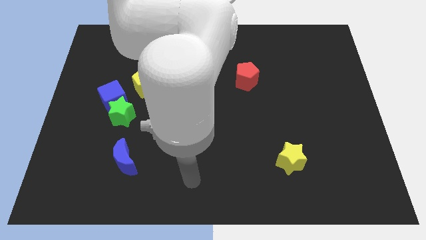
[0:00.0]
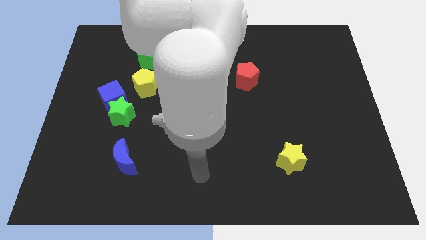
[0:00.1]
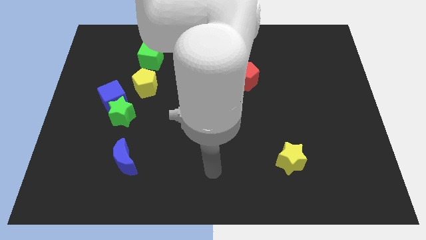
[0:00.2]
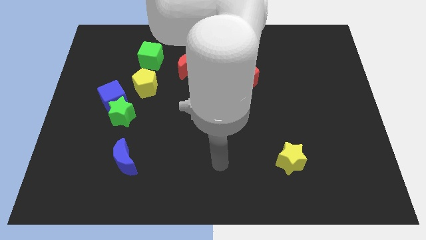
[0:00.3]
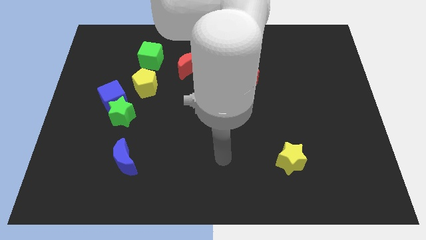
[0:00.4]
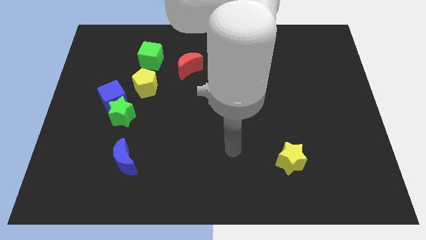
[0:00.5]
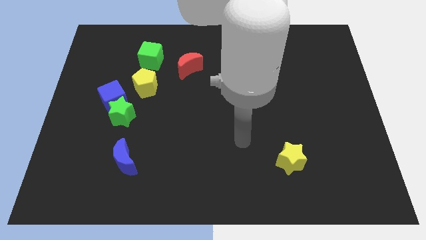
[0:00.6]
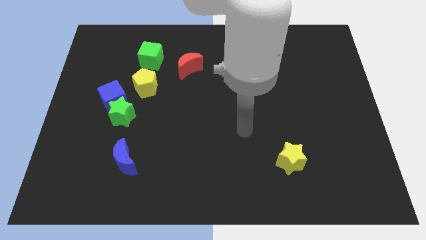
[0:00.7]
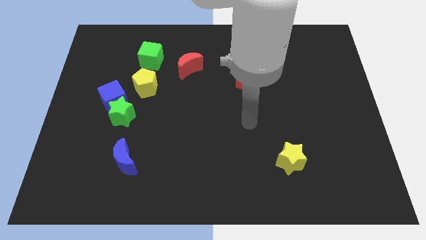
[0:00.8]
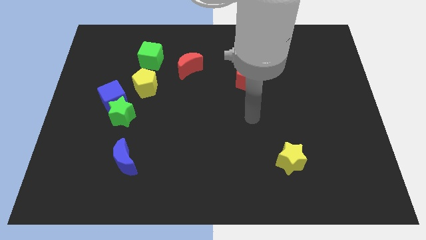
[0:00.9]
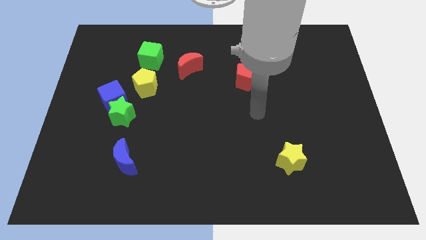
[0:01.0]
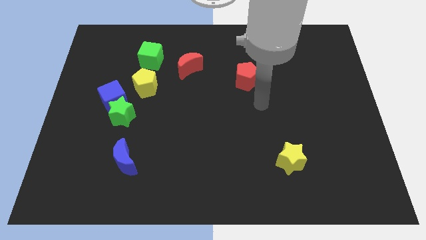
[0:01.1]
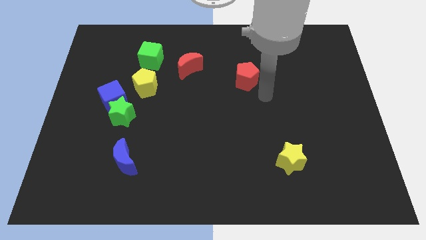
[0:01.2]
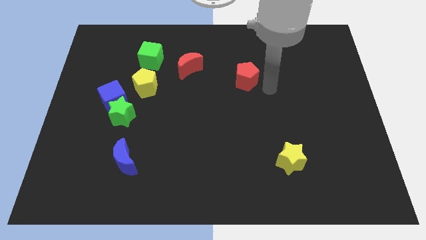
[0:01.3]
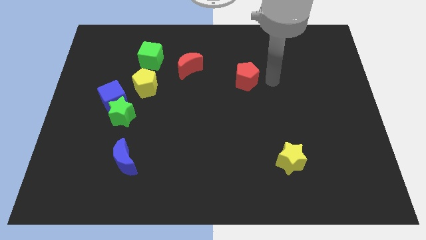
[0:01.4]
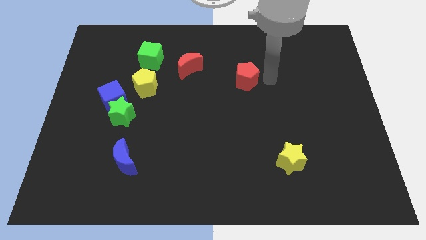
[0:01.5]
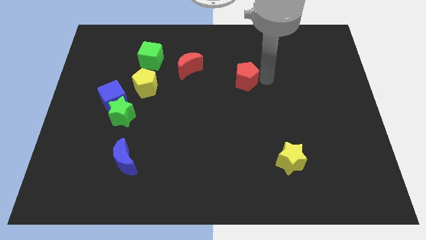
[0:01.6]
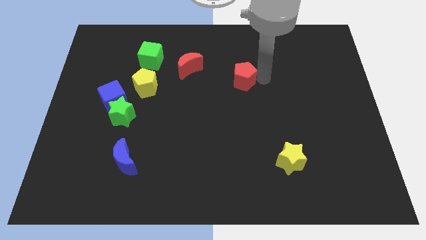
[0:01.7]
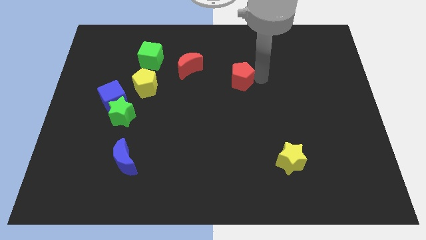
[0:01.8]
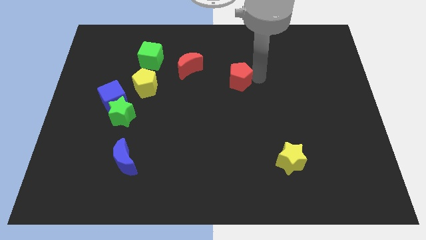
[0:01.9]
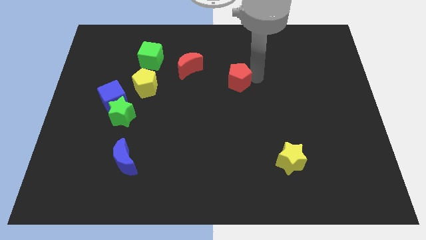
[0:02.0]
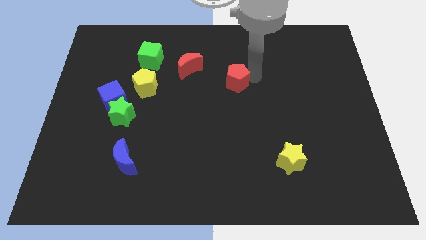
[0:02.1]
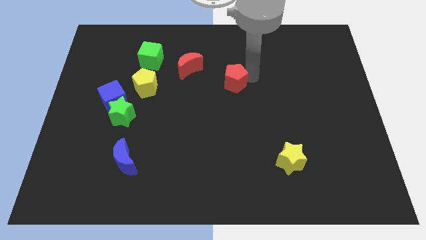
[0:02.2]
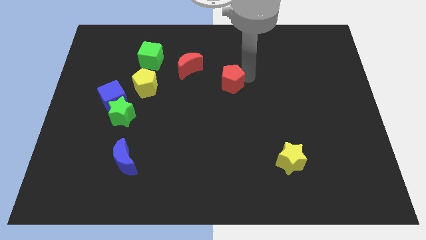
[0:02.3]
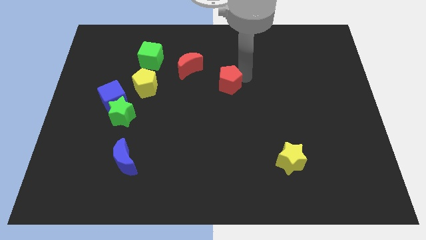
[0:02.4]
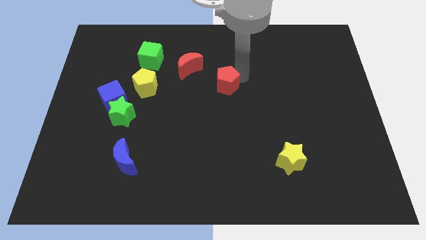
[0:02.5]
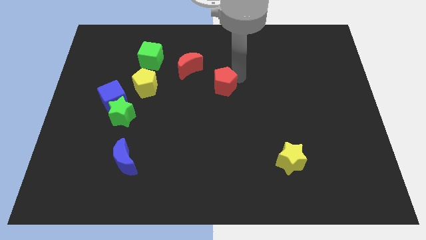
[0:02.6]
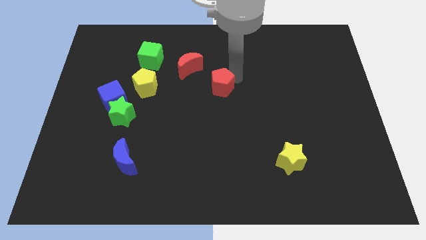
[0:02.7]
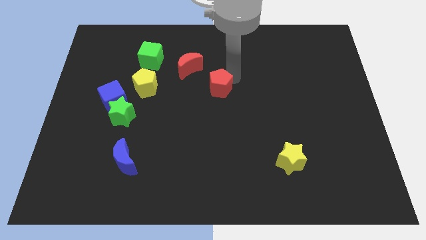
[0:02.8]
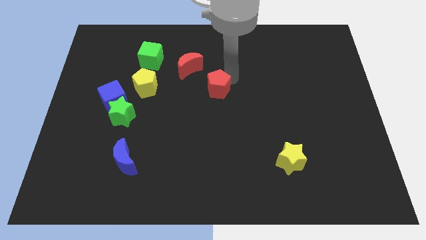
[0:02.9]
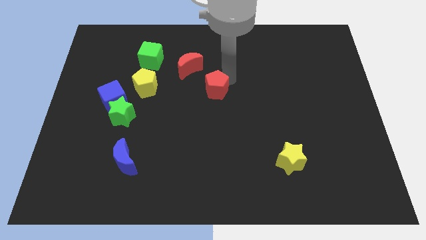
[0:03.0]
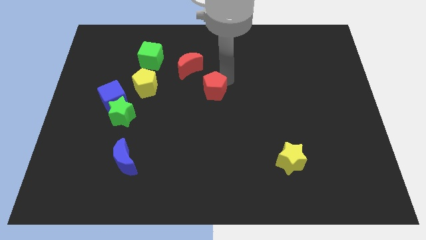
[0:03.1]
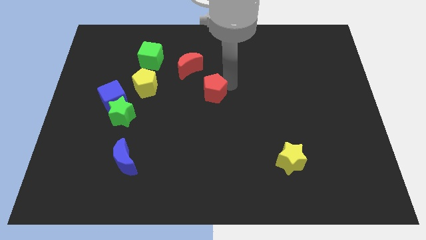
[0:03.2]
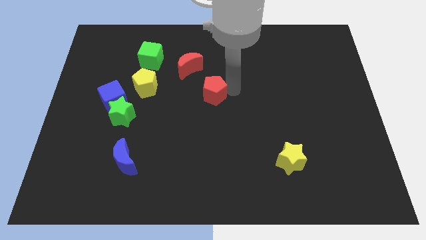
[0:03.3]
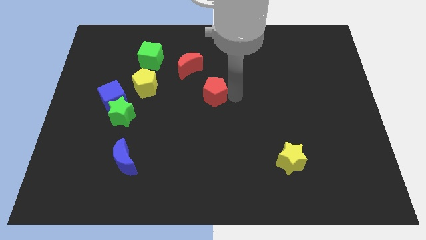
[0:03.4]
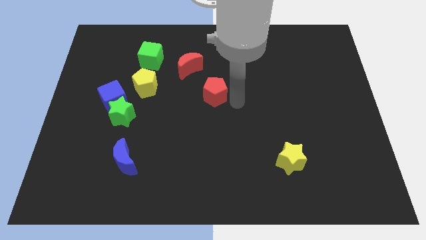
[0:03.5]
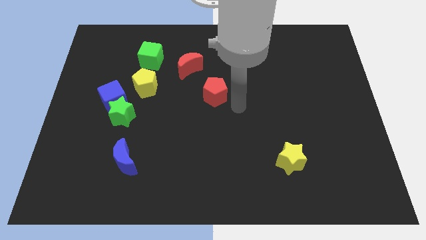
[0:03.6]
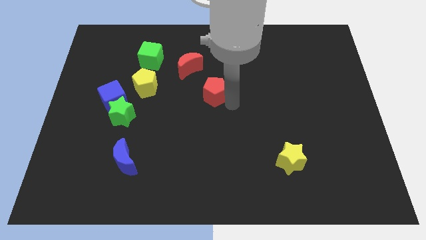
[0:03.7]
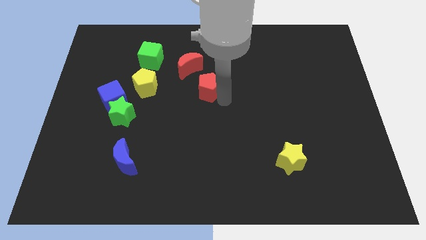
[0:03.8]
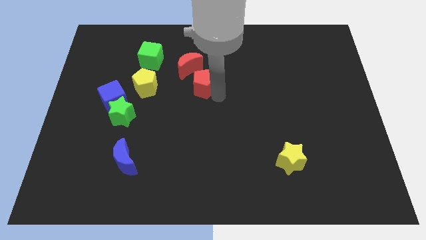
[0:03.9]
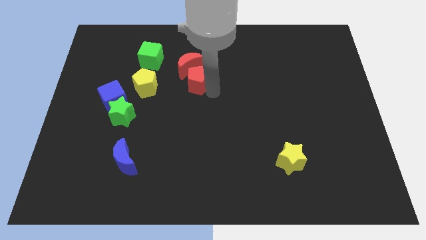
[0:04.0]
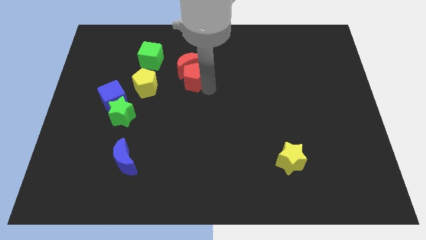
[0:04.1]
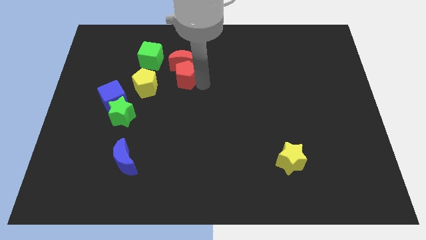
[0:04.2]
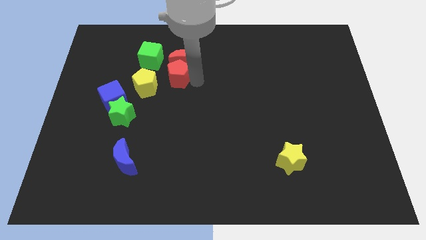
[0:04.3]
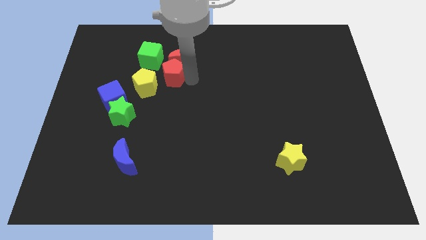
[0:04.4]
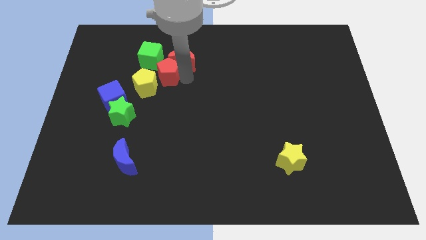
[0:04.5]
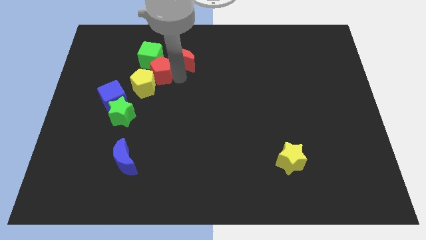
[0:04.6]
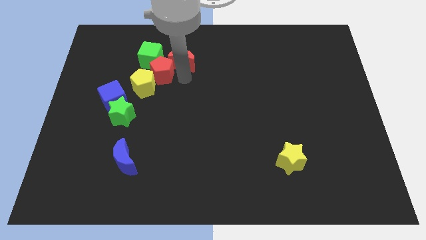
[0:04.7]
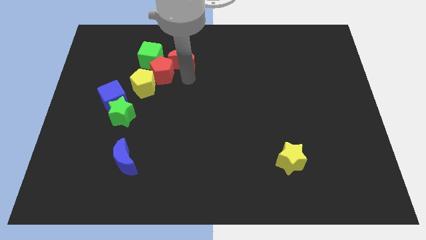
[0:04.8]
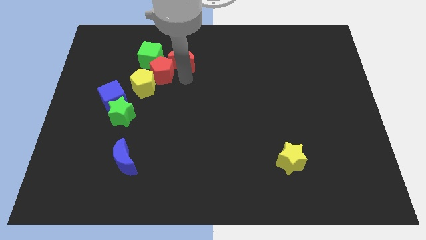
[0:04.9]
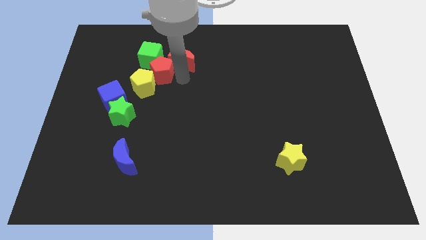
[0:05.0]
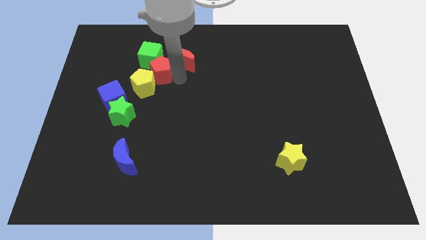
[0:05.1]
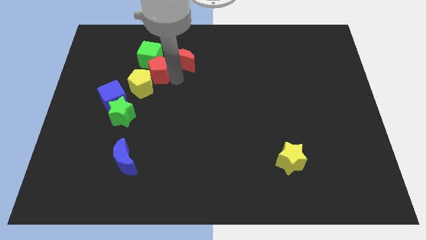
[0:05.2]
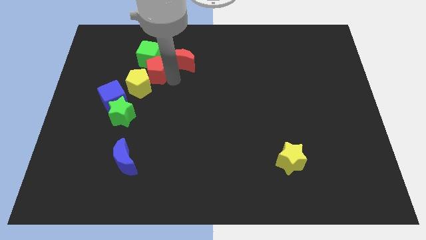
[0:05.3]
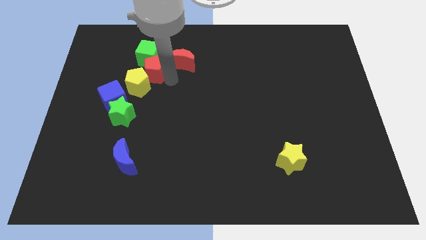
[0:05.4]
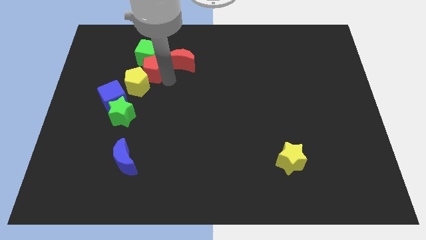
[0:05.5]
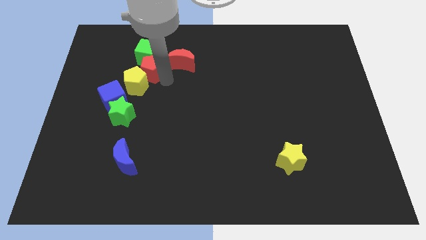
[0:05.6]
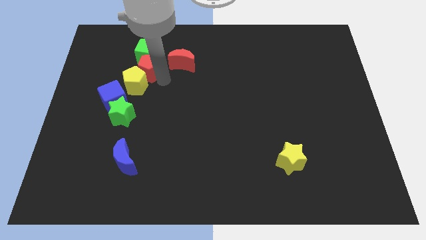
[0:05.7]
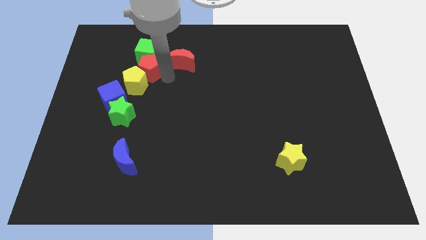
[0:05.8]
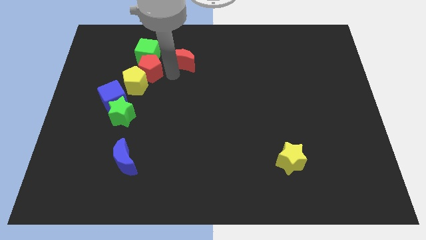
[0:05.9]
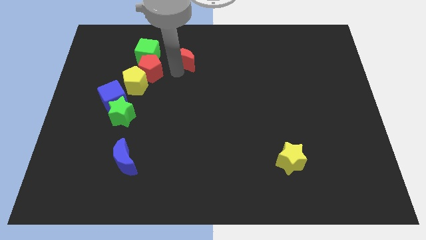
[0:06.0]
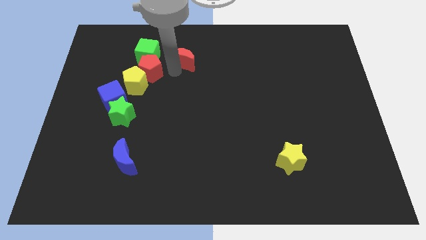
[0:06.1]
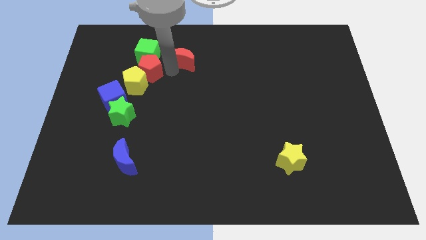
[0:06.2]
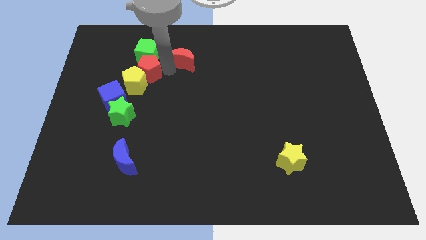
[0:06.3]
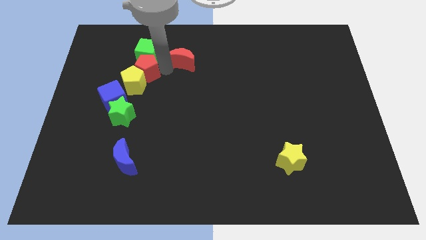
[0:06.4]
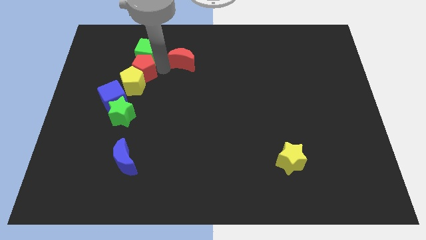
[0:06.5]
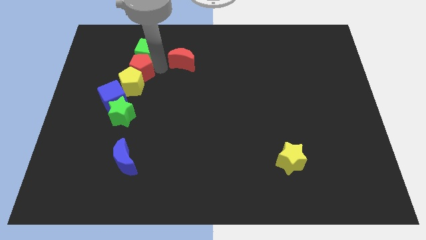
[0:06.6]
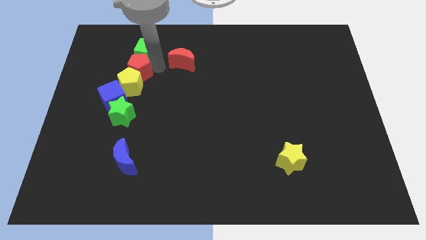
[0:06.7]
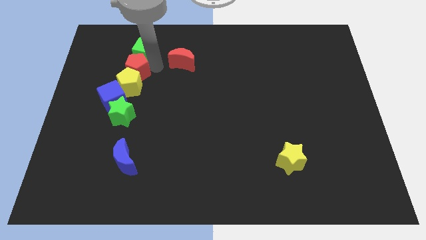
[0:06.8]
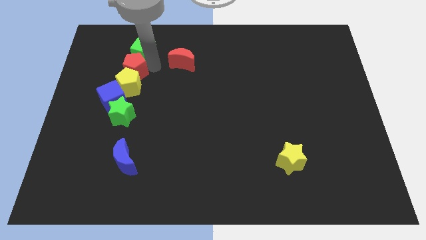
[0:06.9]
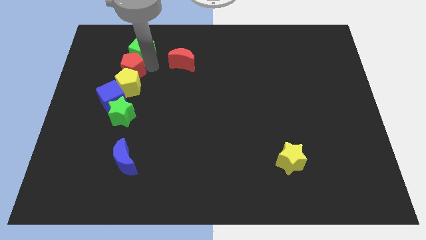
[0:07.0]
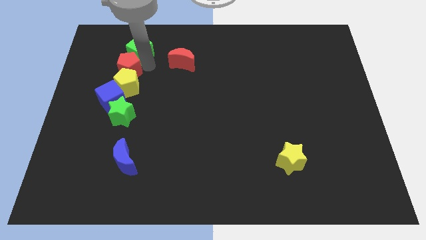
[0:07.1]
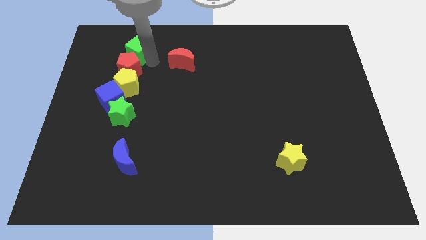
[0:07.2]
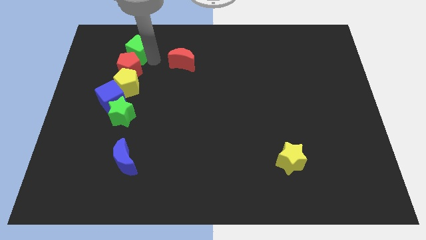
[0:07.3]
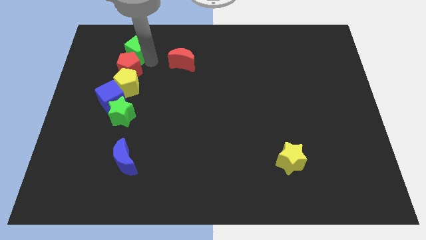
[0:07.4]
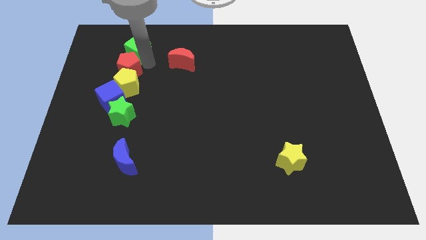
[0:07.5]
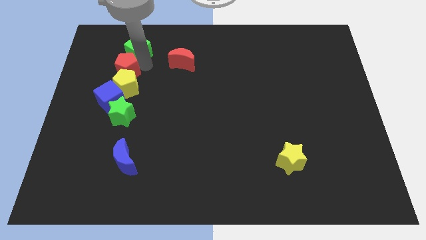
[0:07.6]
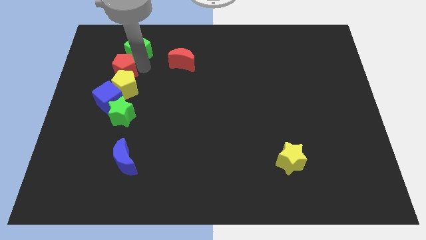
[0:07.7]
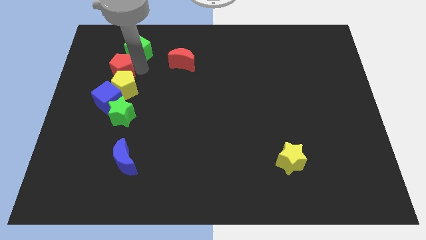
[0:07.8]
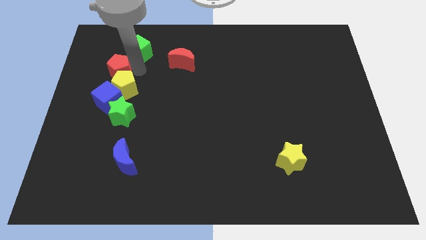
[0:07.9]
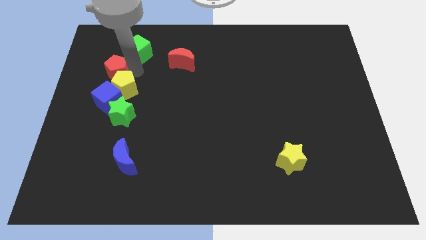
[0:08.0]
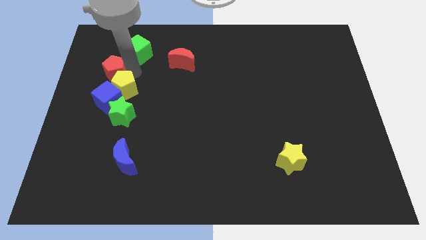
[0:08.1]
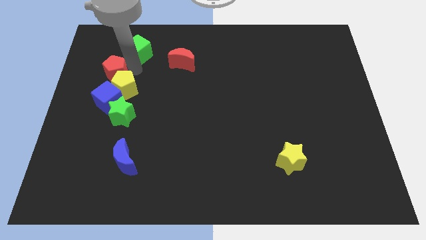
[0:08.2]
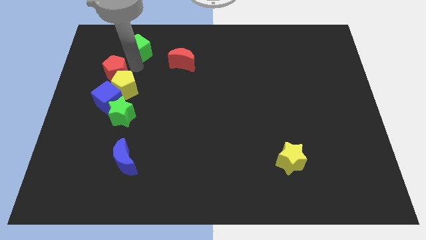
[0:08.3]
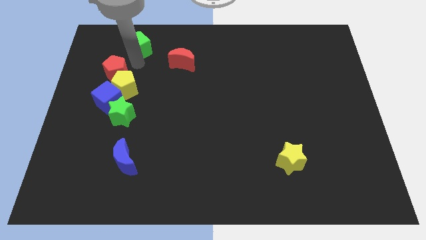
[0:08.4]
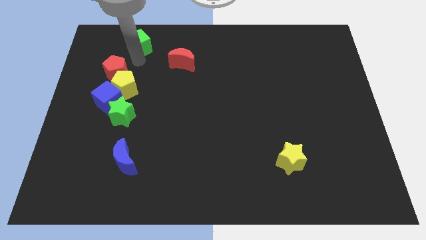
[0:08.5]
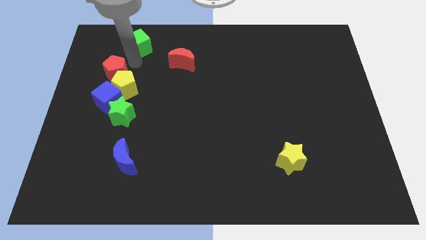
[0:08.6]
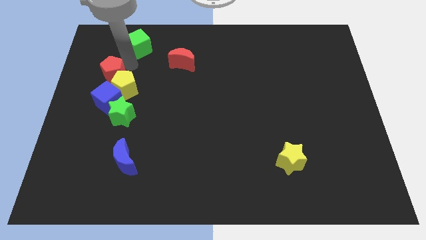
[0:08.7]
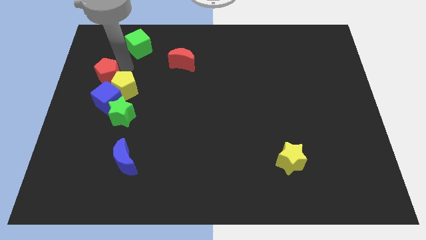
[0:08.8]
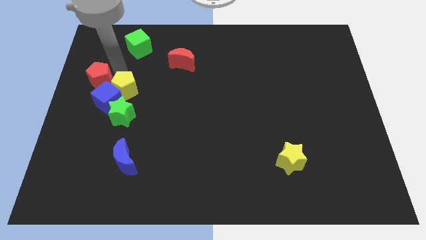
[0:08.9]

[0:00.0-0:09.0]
push the red pentagon to the left side of the board
